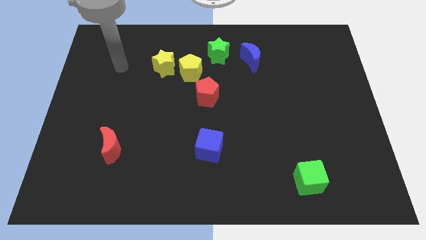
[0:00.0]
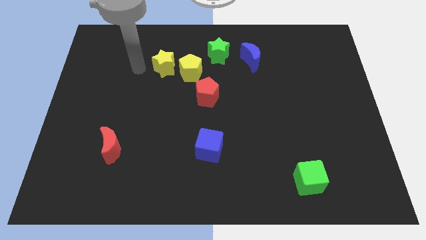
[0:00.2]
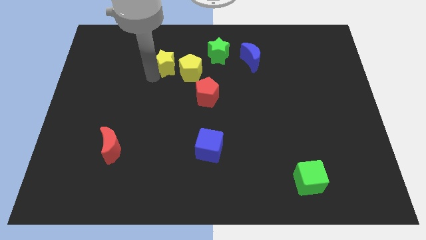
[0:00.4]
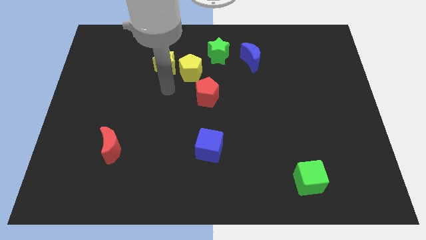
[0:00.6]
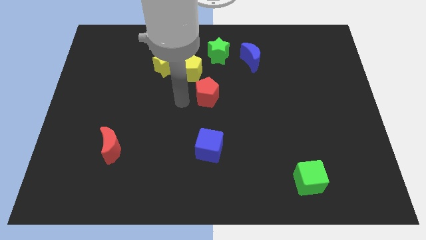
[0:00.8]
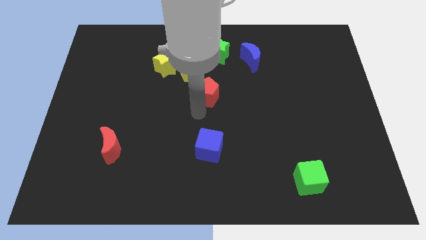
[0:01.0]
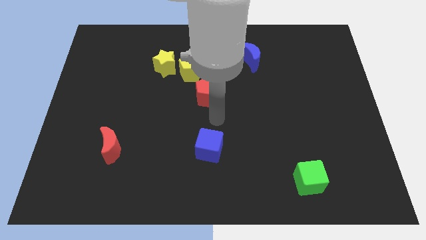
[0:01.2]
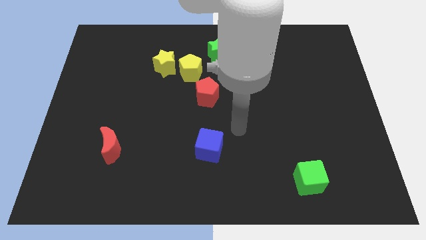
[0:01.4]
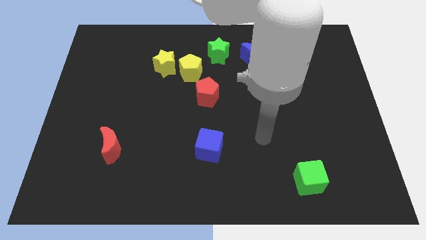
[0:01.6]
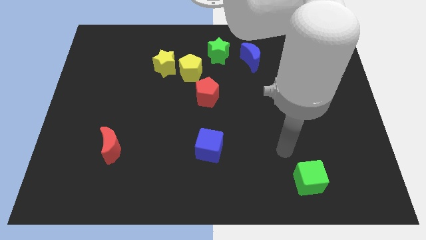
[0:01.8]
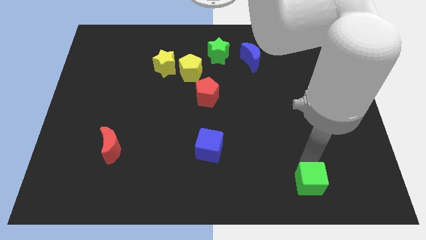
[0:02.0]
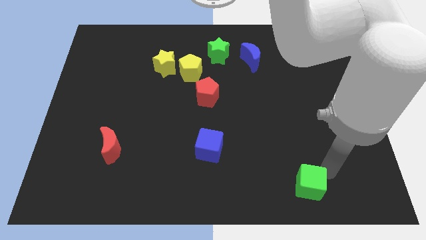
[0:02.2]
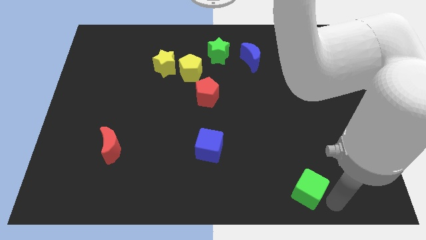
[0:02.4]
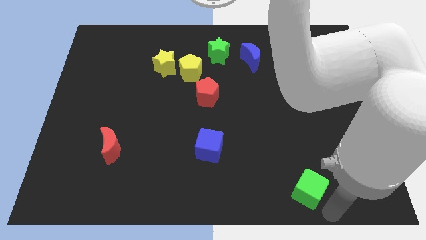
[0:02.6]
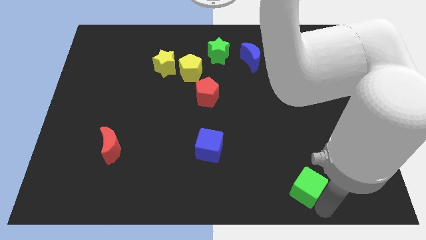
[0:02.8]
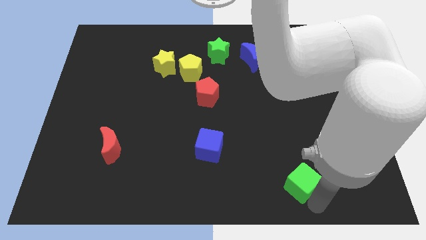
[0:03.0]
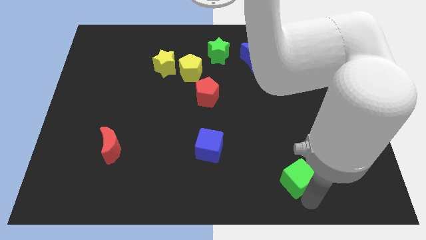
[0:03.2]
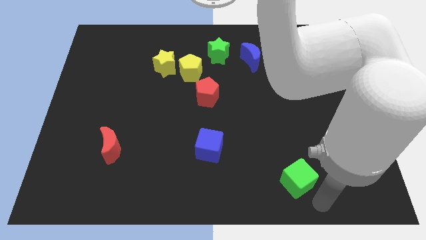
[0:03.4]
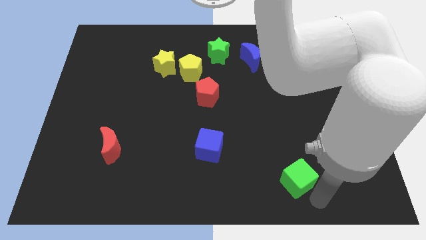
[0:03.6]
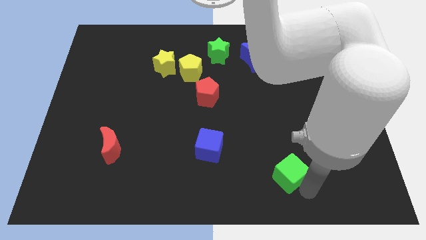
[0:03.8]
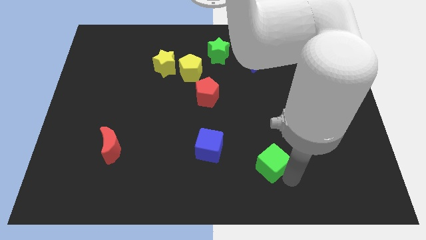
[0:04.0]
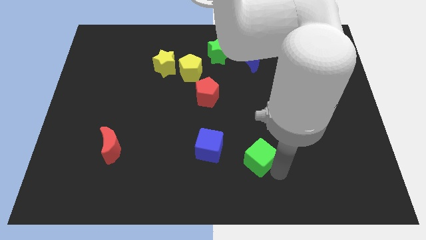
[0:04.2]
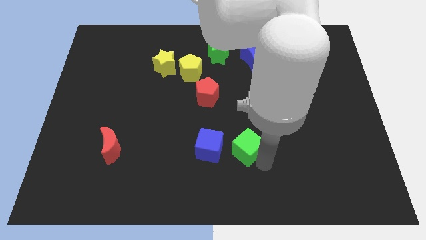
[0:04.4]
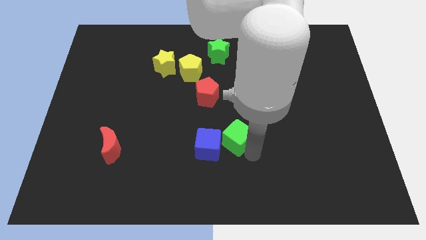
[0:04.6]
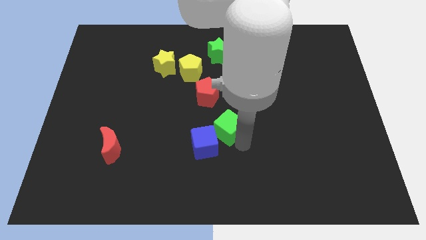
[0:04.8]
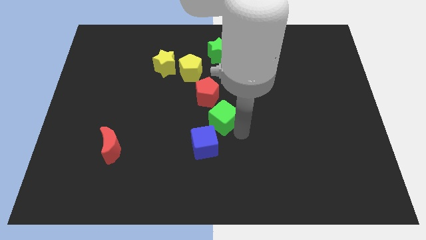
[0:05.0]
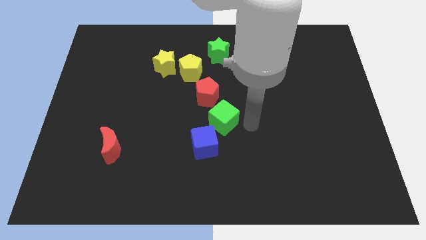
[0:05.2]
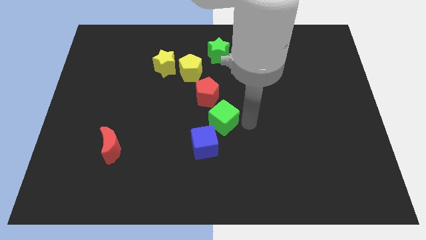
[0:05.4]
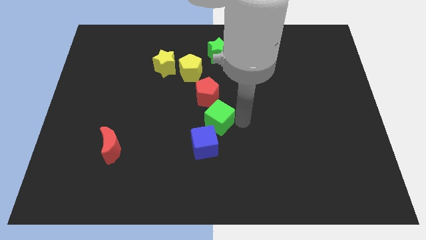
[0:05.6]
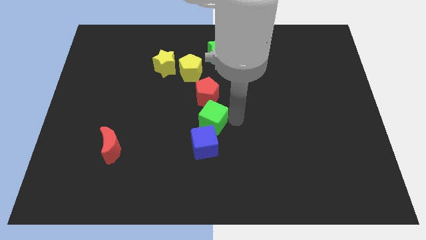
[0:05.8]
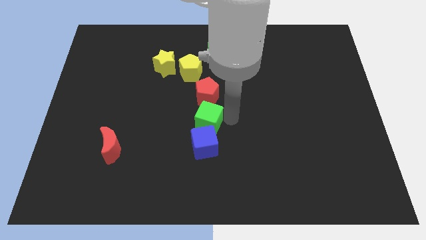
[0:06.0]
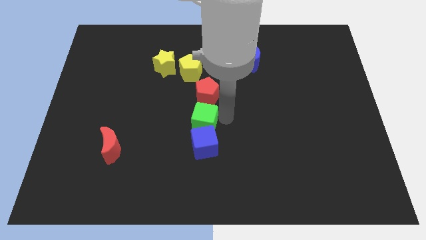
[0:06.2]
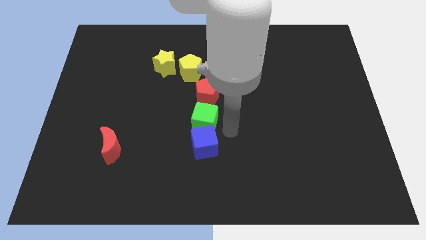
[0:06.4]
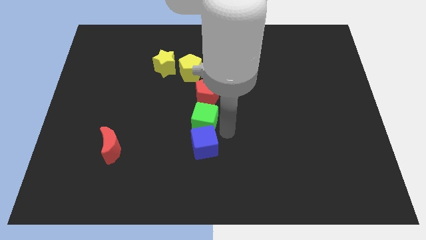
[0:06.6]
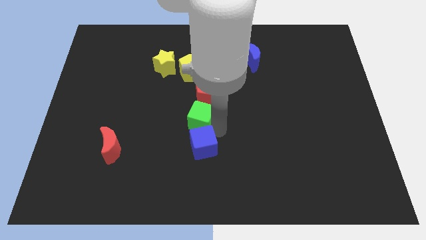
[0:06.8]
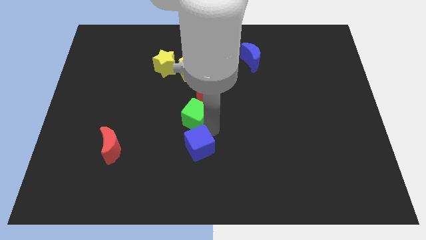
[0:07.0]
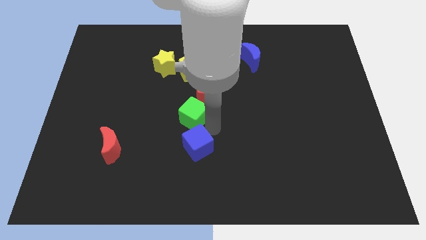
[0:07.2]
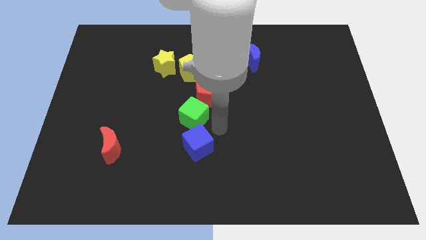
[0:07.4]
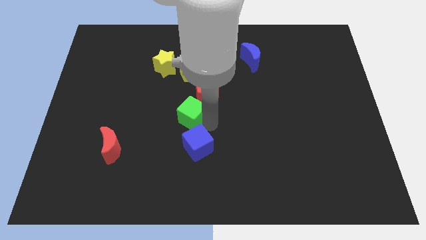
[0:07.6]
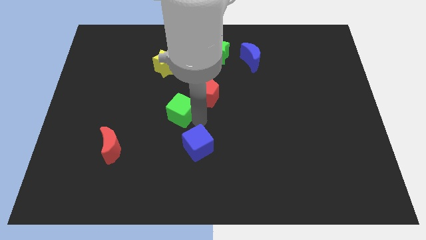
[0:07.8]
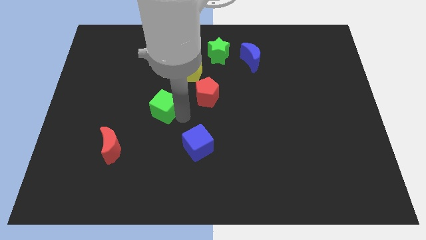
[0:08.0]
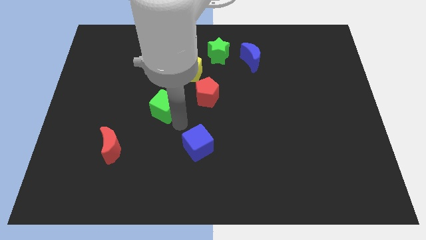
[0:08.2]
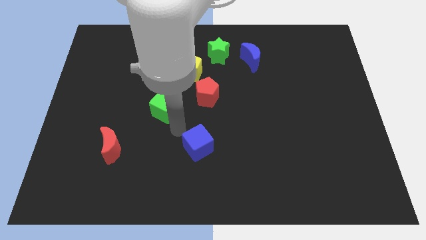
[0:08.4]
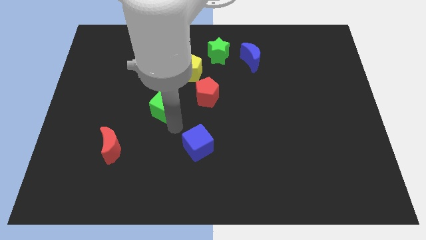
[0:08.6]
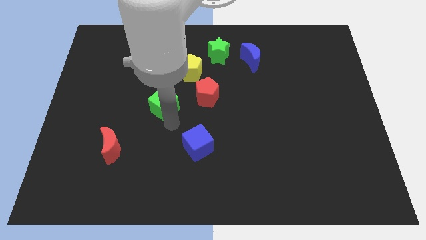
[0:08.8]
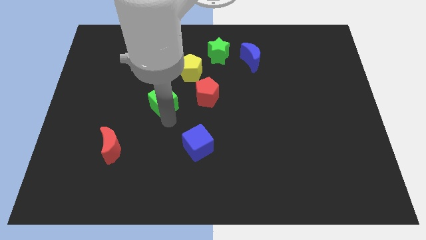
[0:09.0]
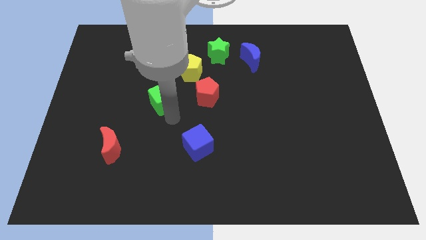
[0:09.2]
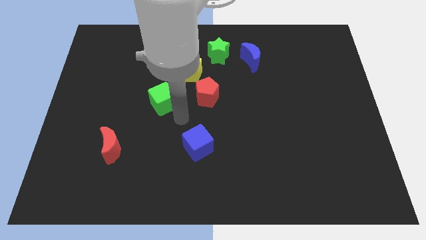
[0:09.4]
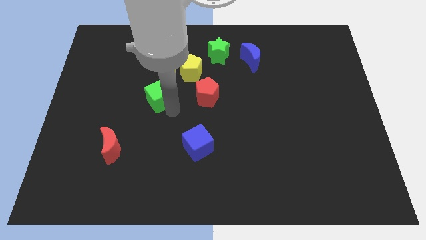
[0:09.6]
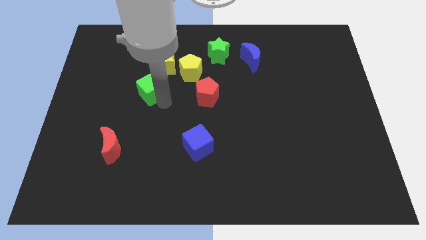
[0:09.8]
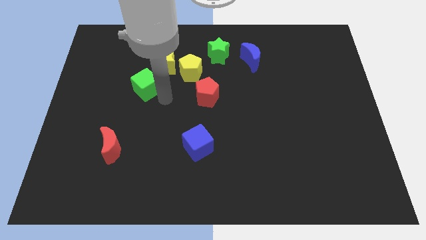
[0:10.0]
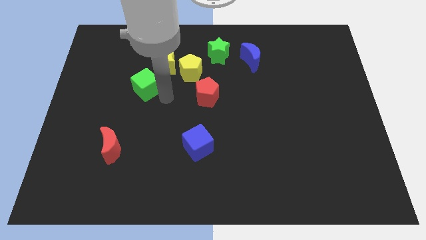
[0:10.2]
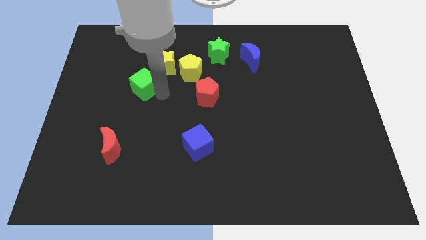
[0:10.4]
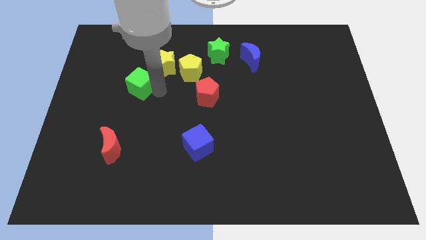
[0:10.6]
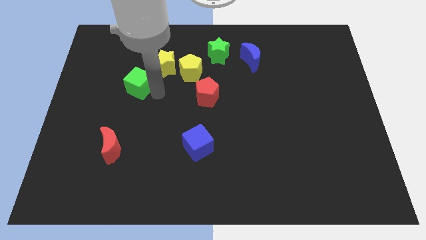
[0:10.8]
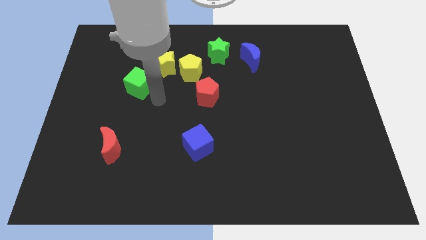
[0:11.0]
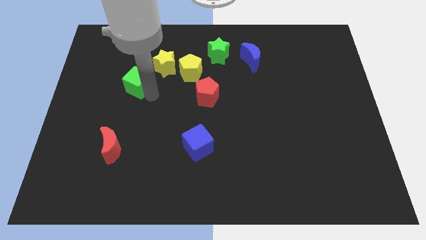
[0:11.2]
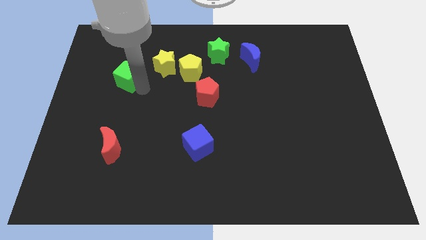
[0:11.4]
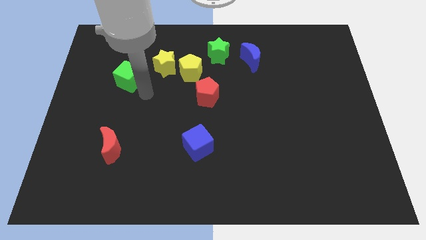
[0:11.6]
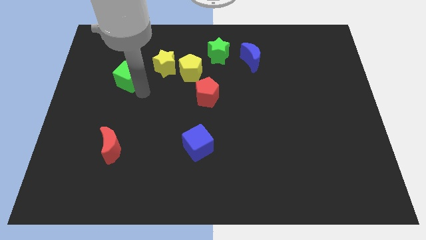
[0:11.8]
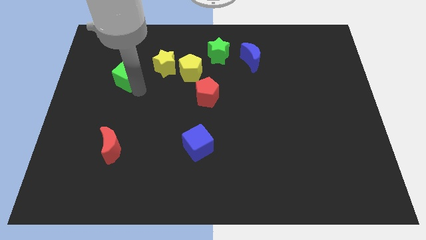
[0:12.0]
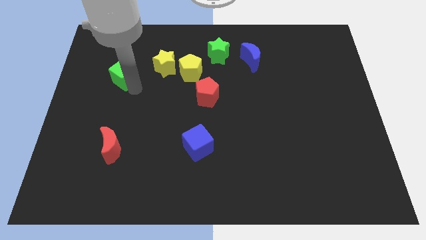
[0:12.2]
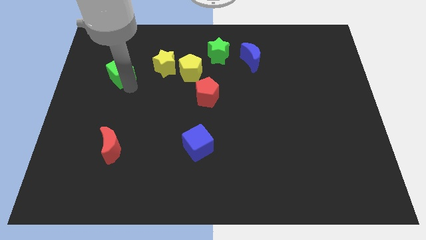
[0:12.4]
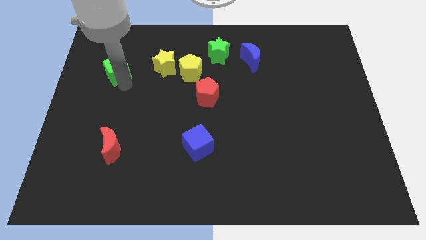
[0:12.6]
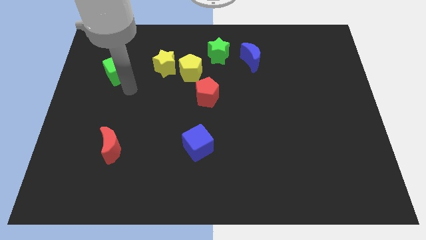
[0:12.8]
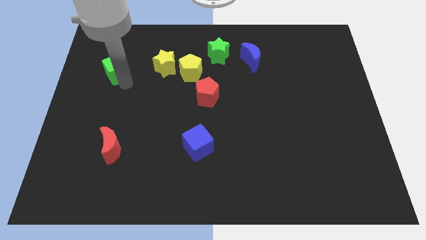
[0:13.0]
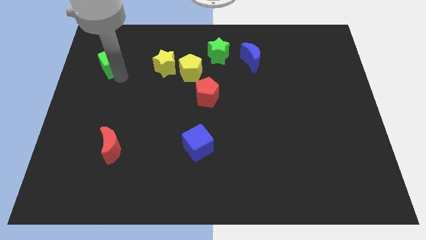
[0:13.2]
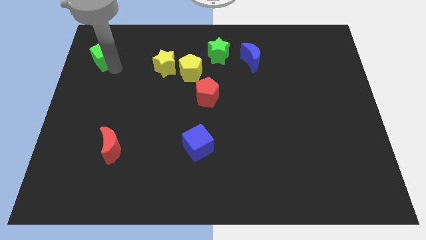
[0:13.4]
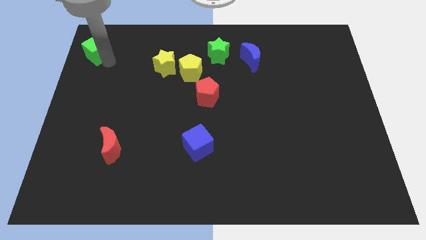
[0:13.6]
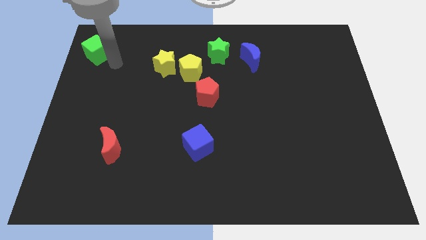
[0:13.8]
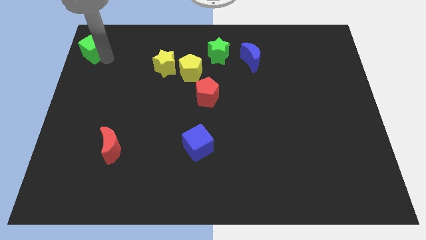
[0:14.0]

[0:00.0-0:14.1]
move the green cube to the top left
